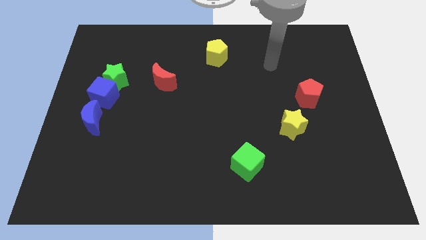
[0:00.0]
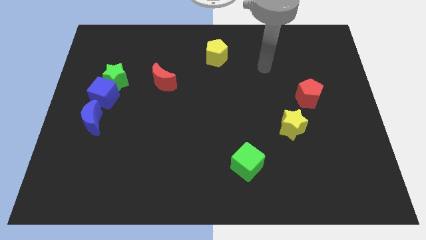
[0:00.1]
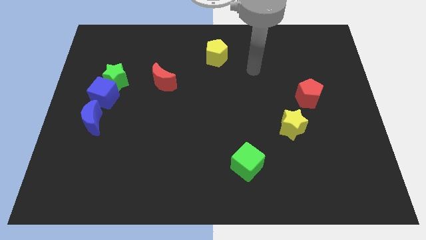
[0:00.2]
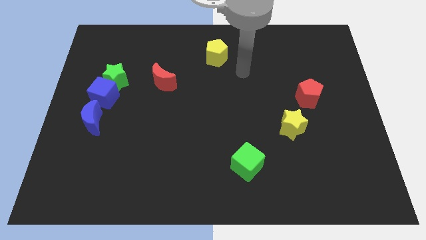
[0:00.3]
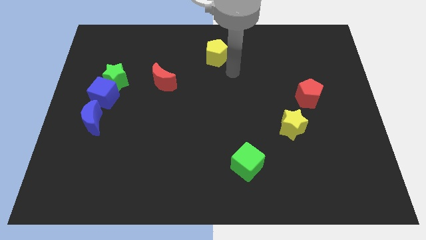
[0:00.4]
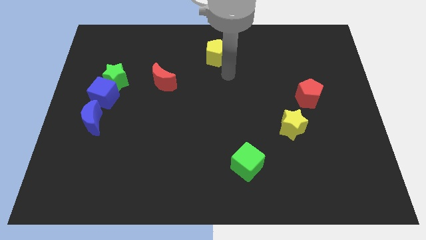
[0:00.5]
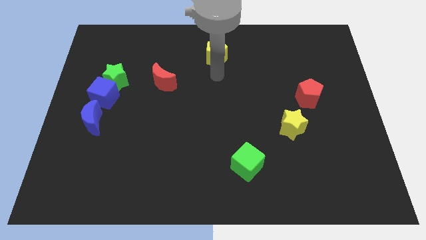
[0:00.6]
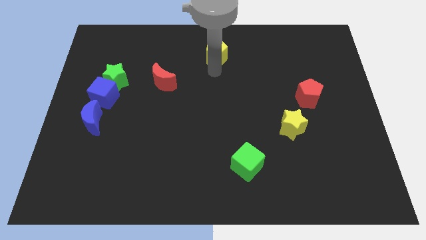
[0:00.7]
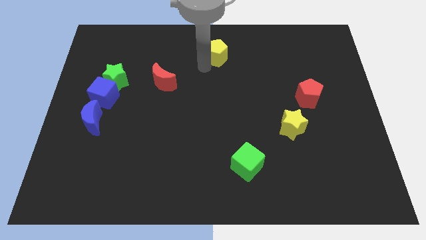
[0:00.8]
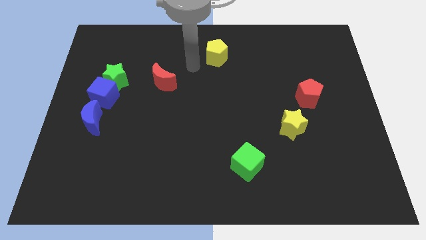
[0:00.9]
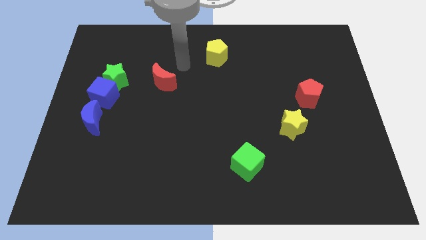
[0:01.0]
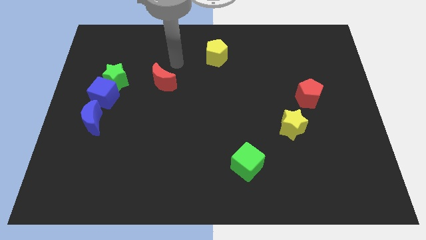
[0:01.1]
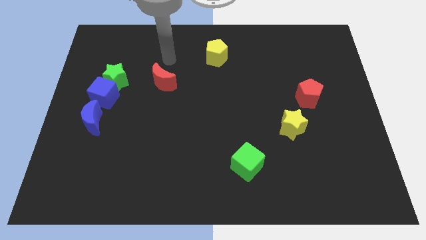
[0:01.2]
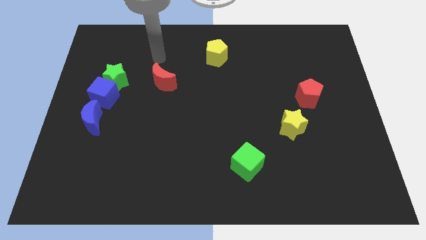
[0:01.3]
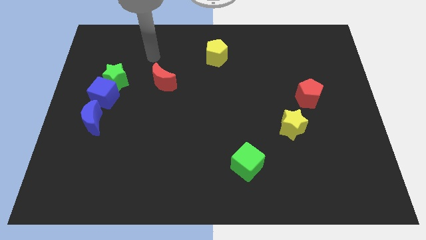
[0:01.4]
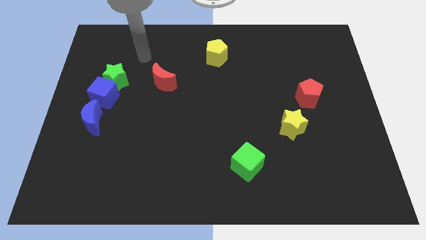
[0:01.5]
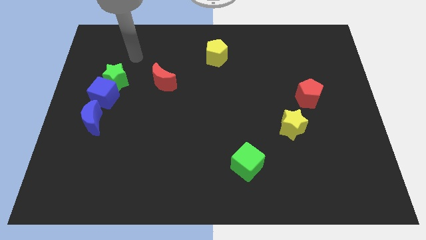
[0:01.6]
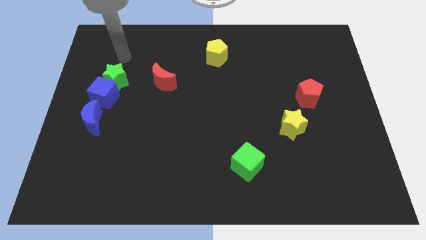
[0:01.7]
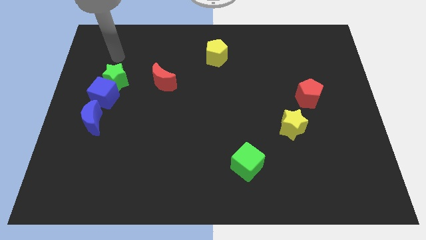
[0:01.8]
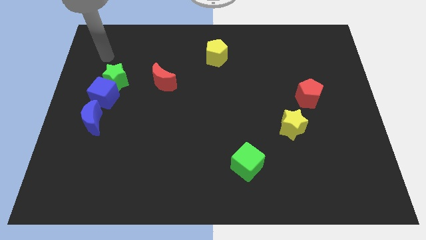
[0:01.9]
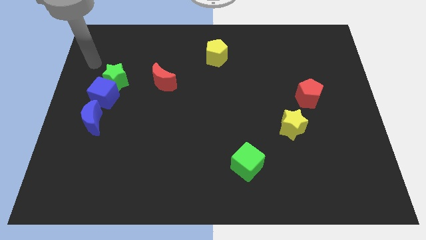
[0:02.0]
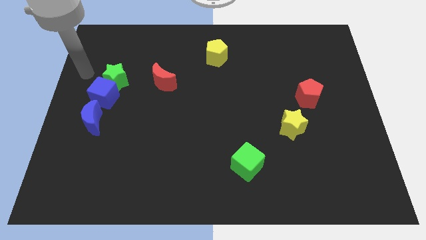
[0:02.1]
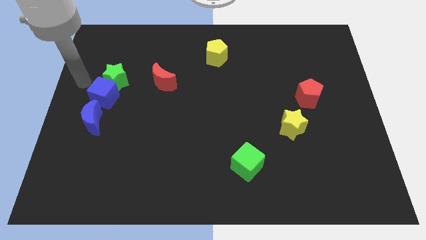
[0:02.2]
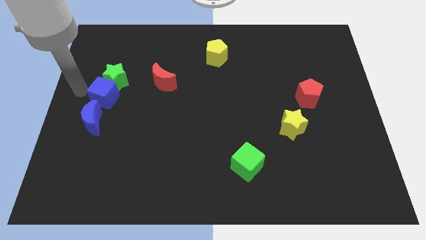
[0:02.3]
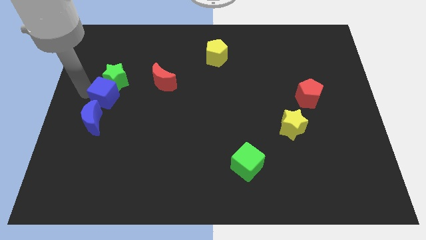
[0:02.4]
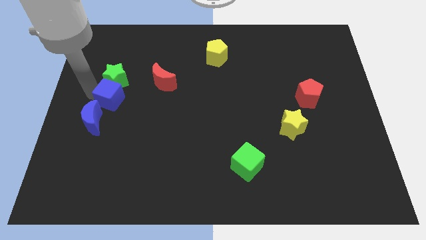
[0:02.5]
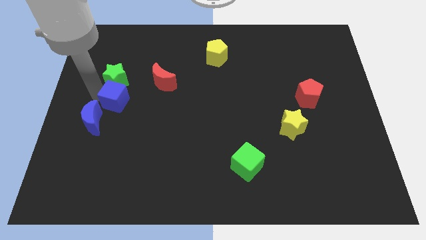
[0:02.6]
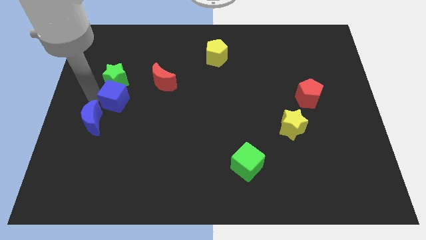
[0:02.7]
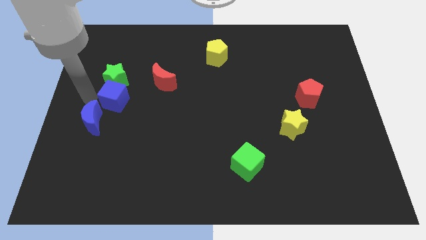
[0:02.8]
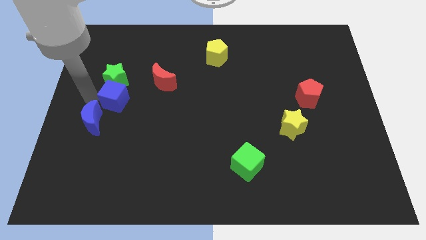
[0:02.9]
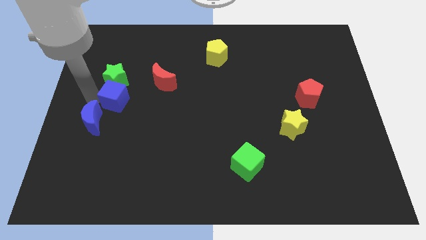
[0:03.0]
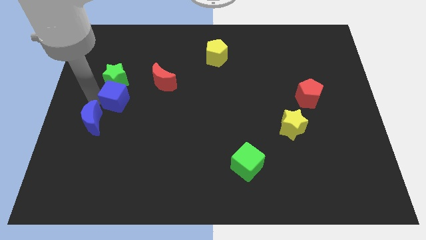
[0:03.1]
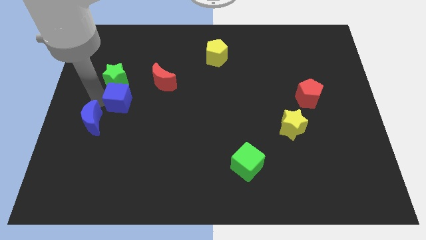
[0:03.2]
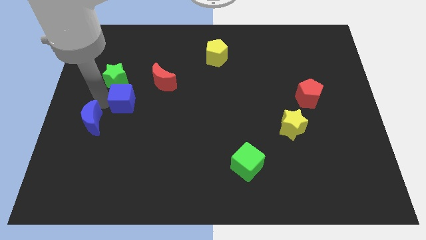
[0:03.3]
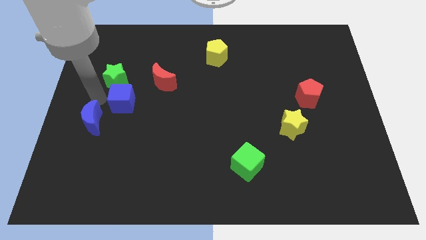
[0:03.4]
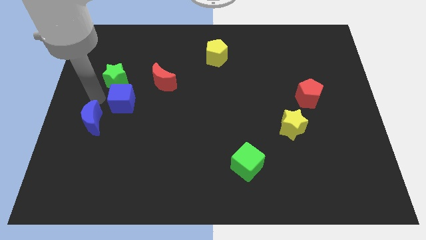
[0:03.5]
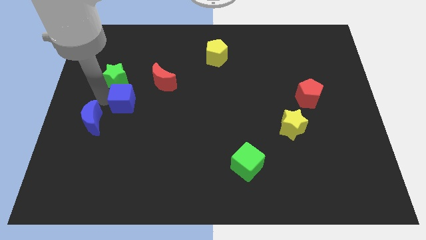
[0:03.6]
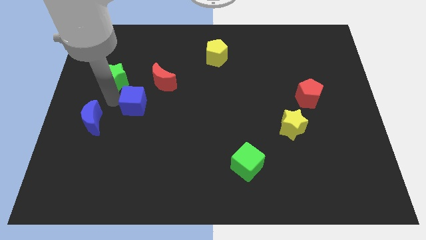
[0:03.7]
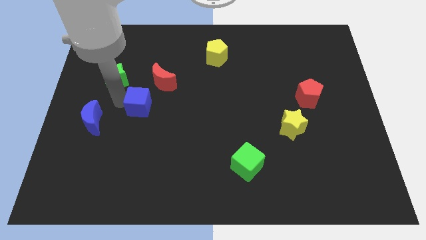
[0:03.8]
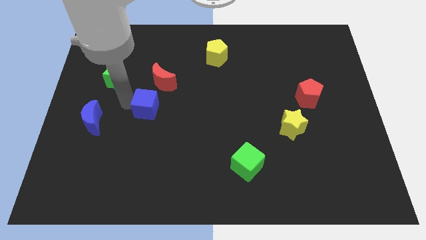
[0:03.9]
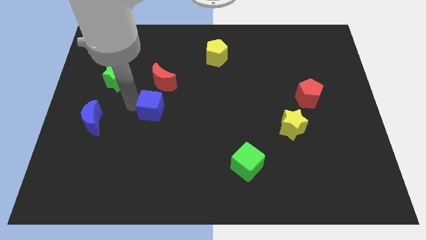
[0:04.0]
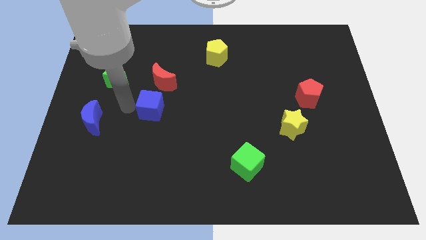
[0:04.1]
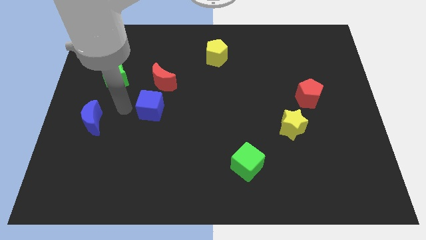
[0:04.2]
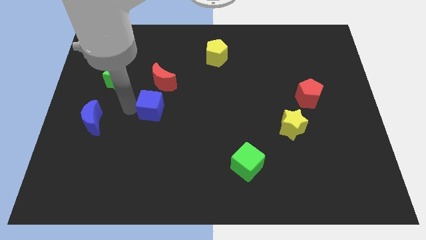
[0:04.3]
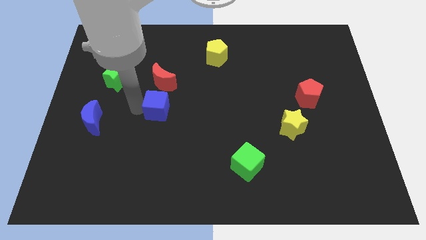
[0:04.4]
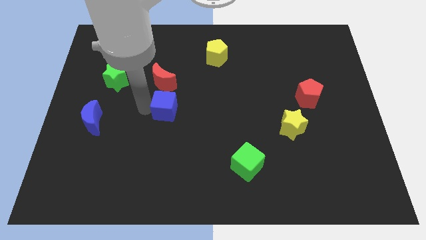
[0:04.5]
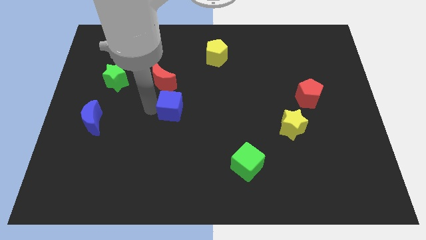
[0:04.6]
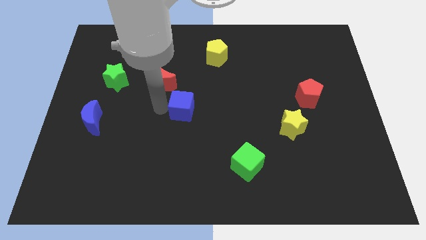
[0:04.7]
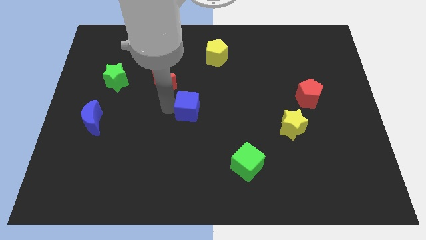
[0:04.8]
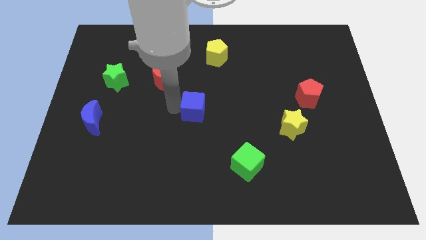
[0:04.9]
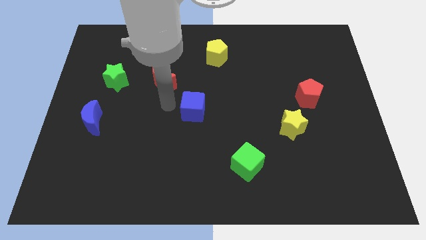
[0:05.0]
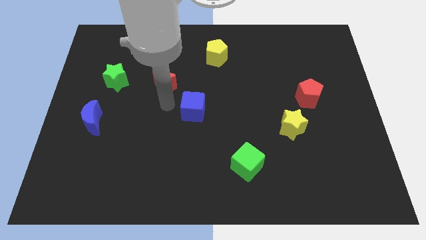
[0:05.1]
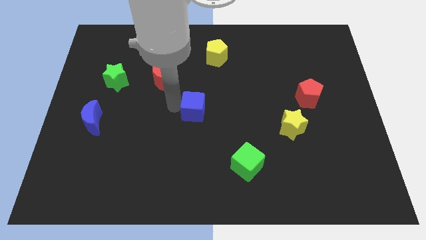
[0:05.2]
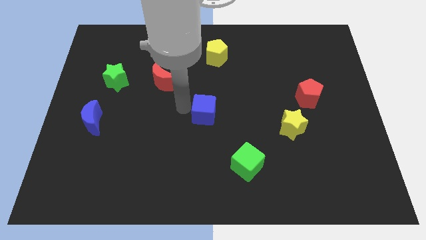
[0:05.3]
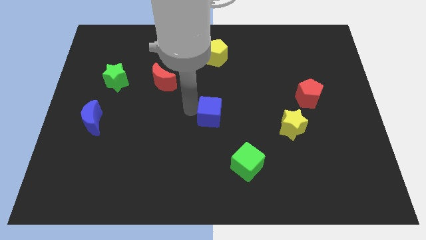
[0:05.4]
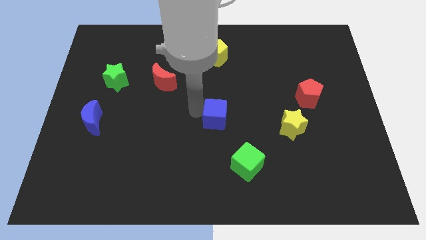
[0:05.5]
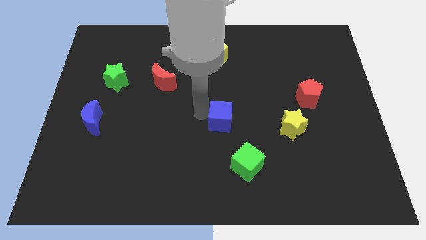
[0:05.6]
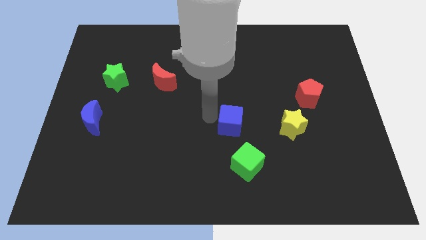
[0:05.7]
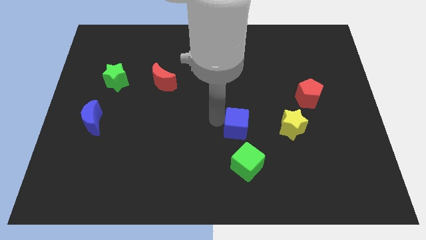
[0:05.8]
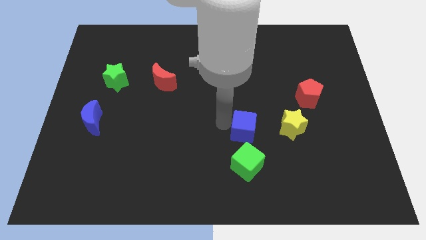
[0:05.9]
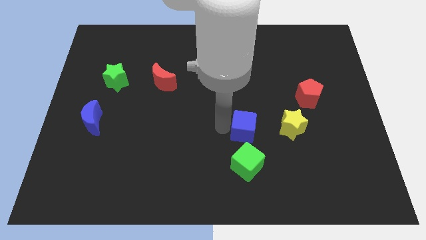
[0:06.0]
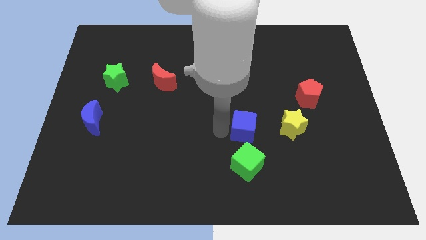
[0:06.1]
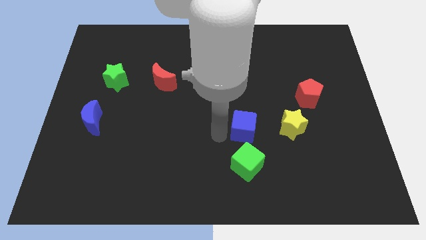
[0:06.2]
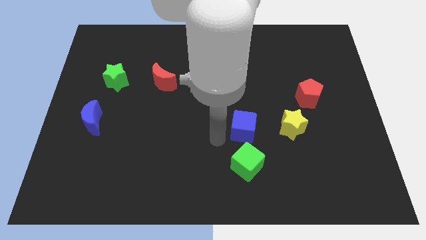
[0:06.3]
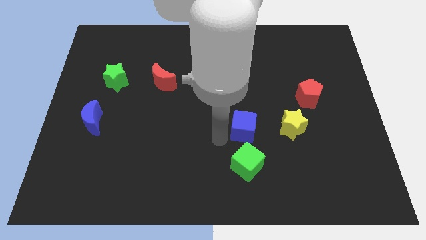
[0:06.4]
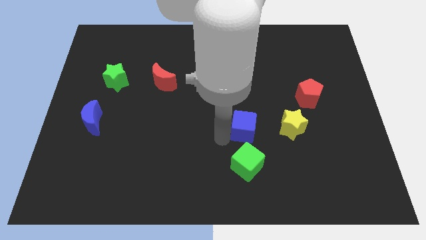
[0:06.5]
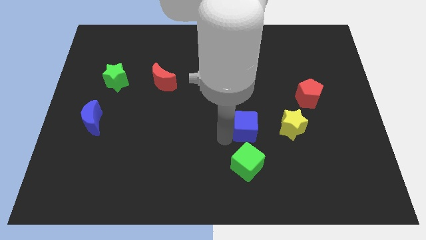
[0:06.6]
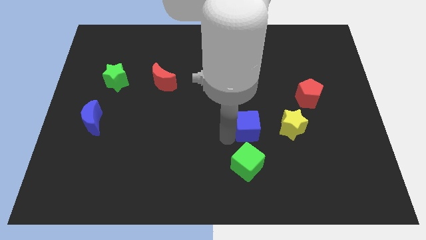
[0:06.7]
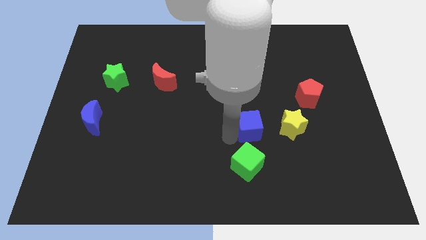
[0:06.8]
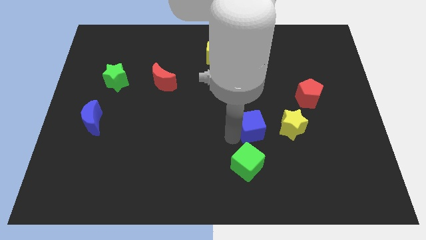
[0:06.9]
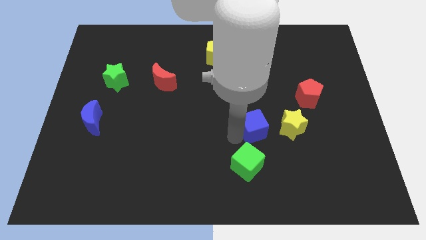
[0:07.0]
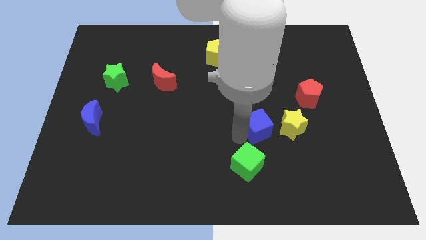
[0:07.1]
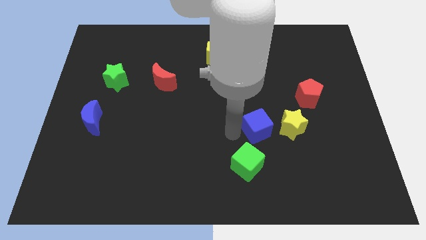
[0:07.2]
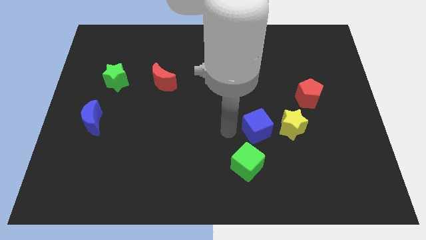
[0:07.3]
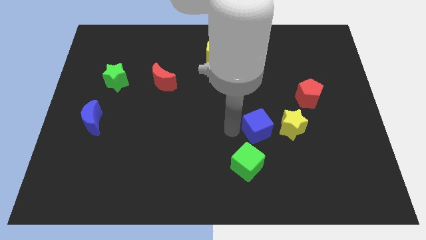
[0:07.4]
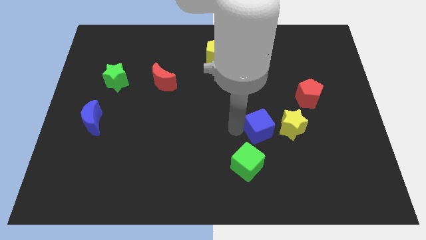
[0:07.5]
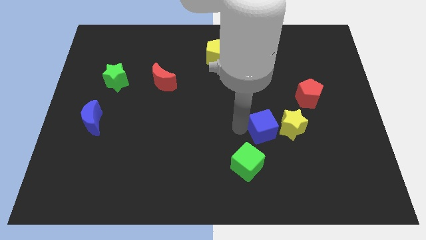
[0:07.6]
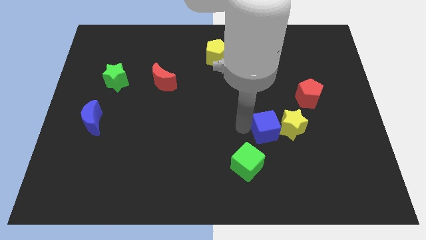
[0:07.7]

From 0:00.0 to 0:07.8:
slide the blue cube towards the yellow star
